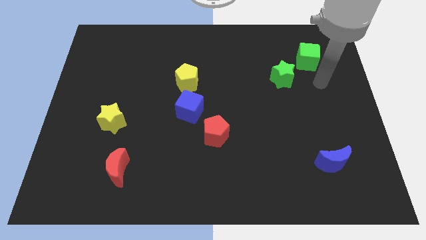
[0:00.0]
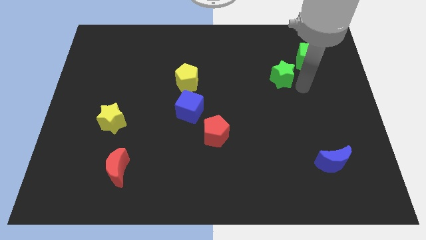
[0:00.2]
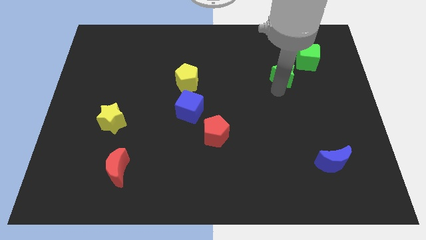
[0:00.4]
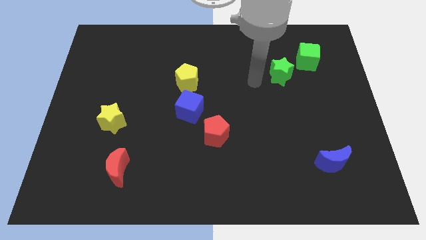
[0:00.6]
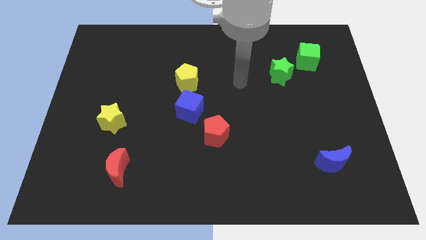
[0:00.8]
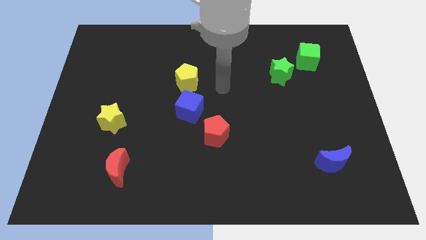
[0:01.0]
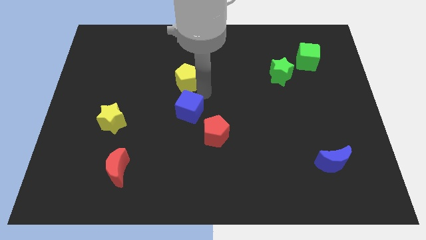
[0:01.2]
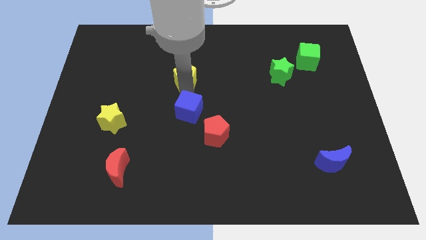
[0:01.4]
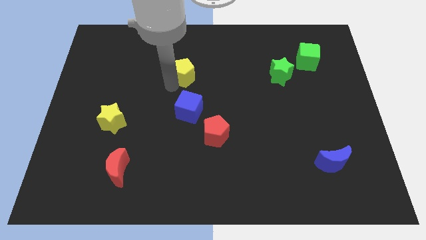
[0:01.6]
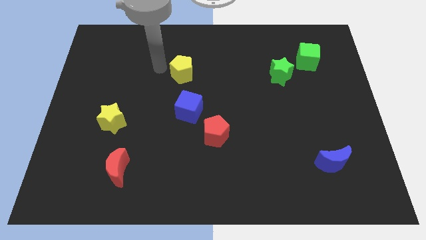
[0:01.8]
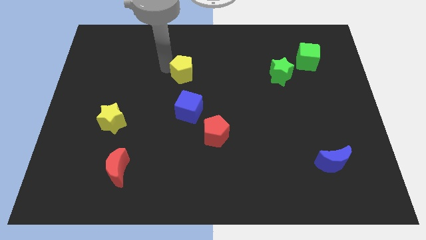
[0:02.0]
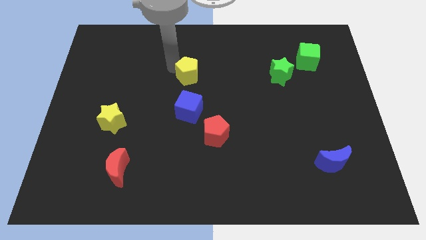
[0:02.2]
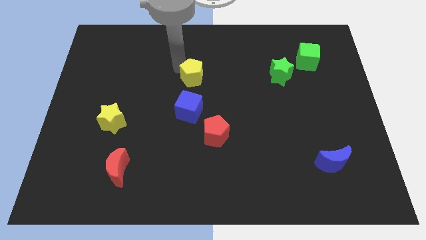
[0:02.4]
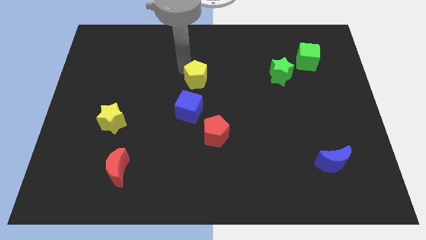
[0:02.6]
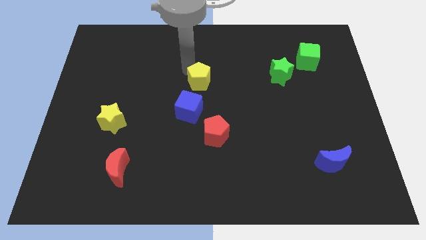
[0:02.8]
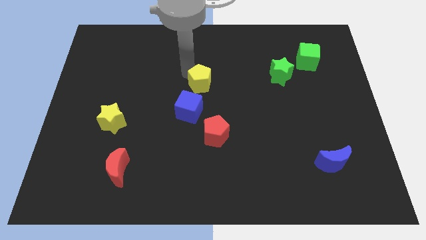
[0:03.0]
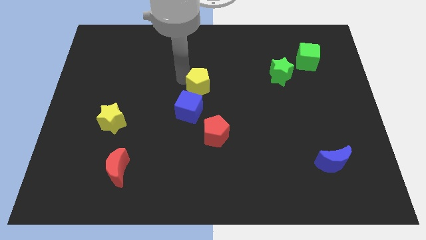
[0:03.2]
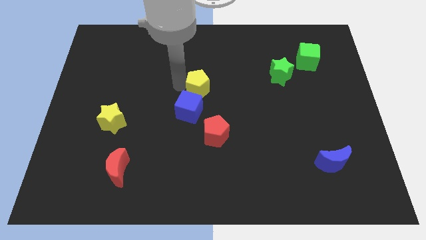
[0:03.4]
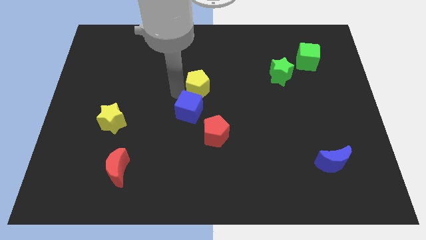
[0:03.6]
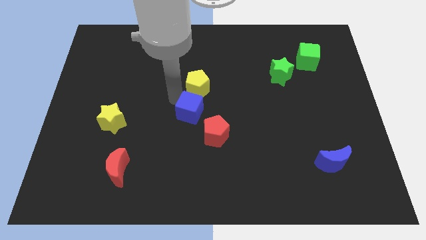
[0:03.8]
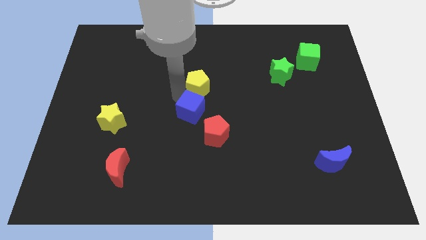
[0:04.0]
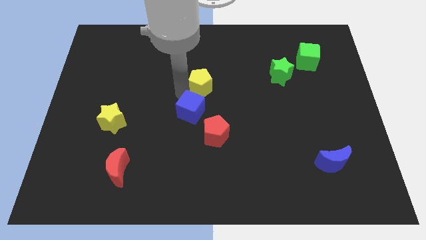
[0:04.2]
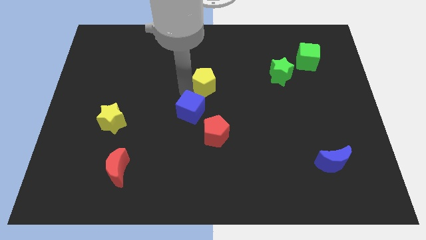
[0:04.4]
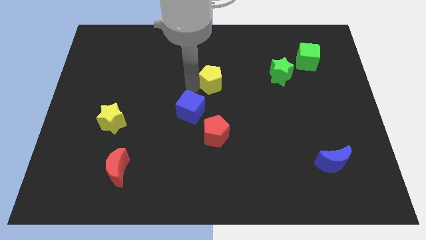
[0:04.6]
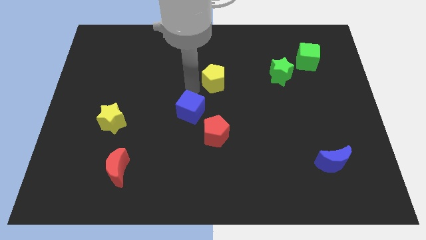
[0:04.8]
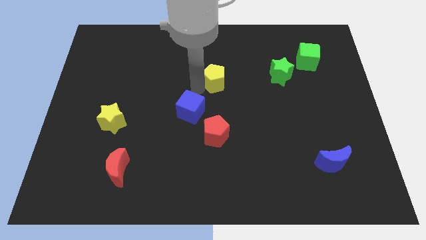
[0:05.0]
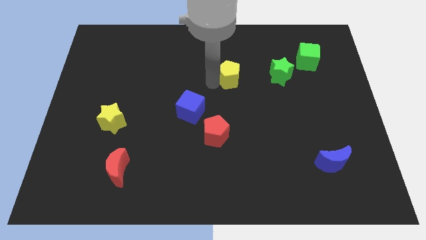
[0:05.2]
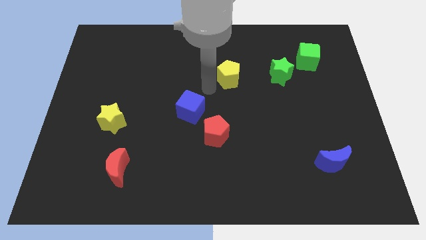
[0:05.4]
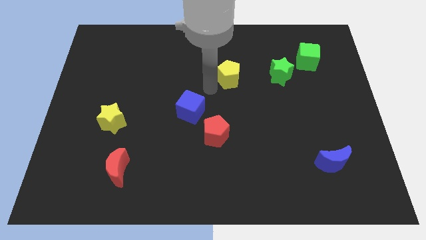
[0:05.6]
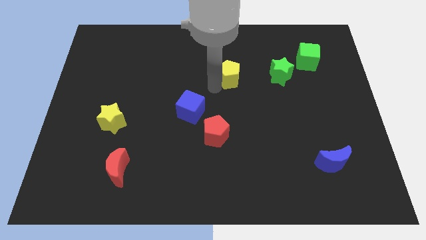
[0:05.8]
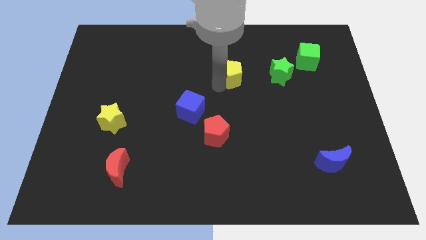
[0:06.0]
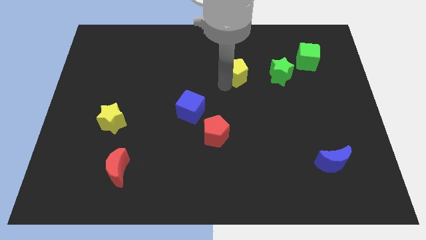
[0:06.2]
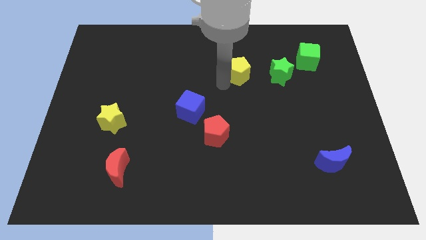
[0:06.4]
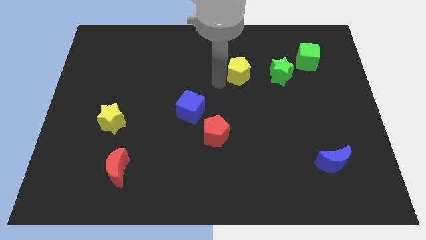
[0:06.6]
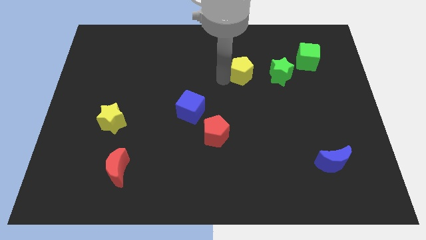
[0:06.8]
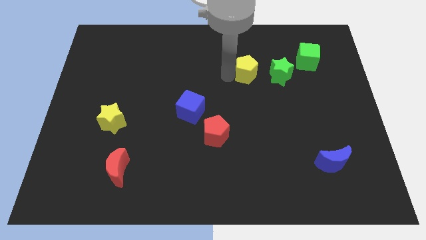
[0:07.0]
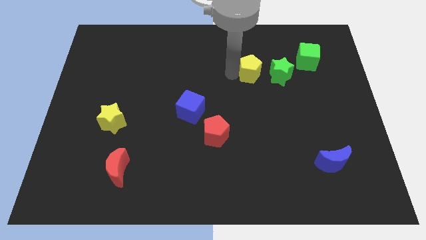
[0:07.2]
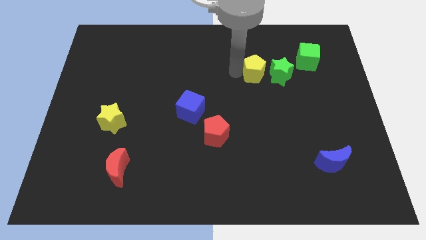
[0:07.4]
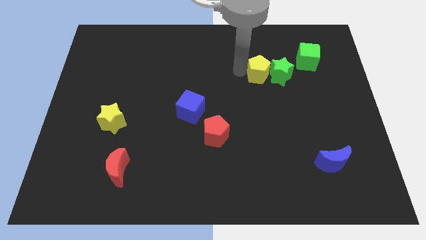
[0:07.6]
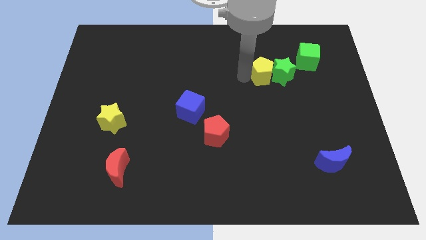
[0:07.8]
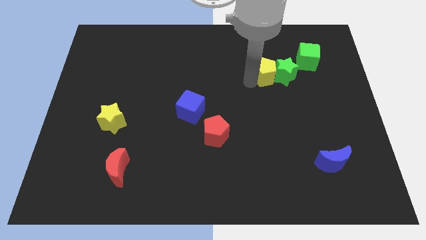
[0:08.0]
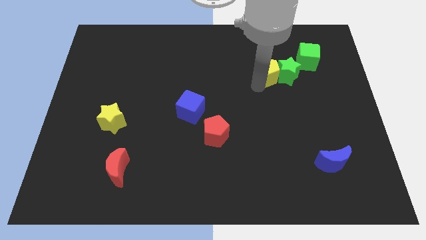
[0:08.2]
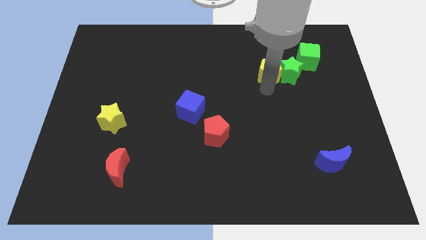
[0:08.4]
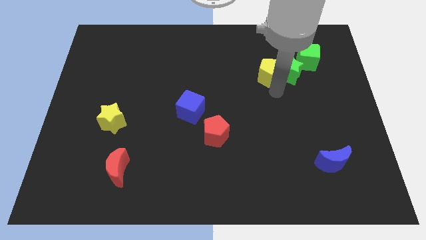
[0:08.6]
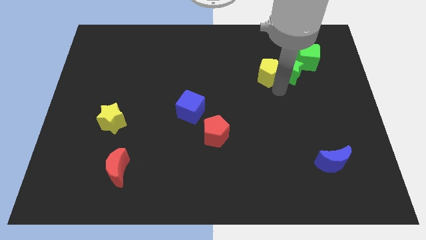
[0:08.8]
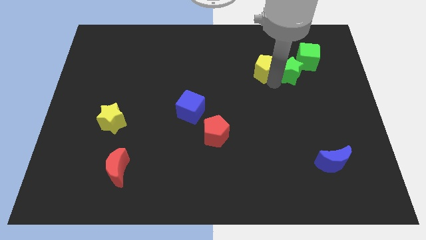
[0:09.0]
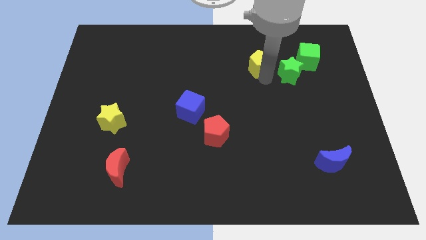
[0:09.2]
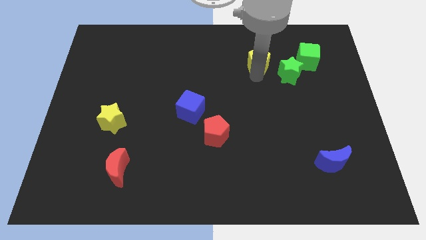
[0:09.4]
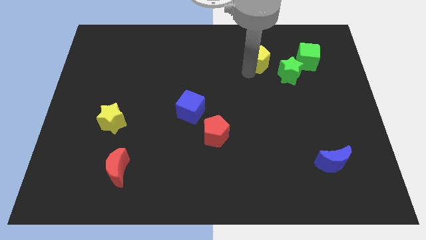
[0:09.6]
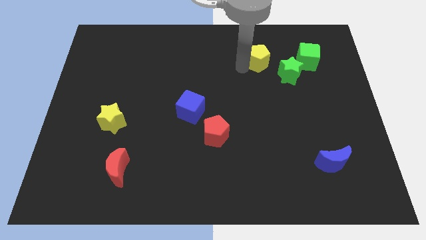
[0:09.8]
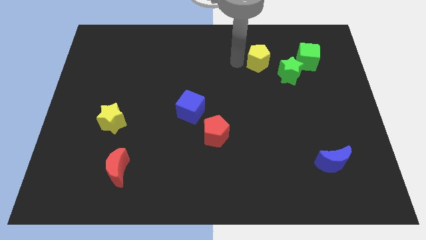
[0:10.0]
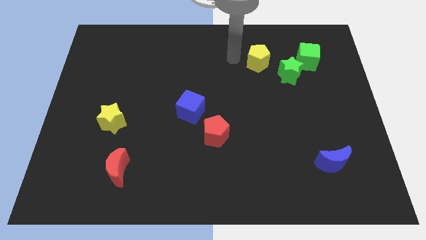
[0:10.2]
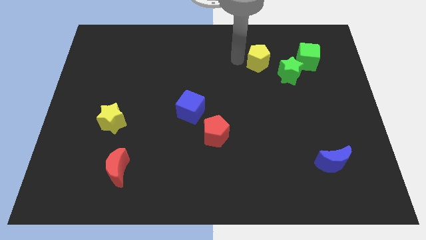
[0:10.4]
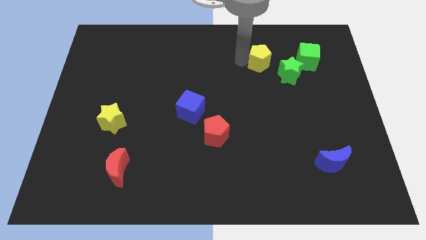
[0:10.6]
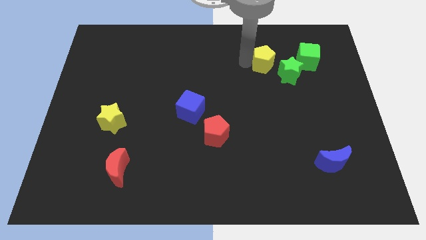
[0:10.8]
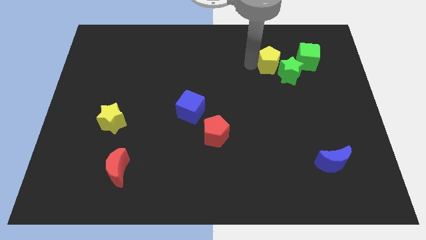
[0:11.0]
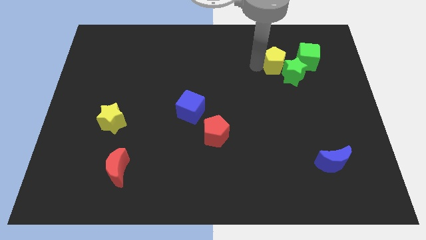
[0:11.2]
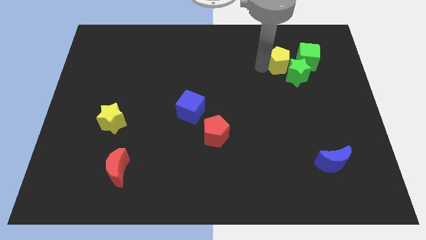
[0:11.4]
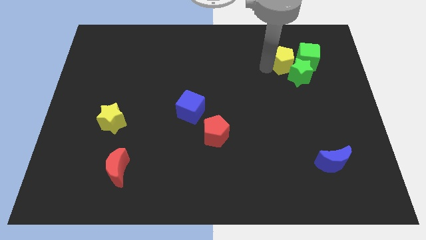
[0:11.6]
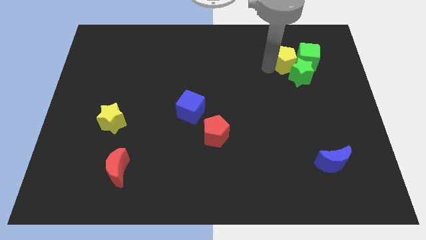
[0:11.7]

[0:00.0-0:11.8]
slide the yellow pentagon towards the green cube

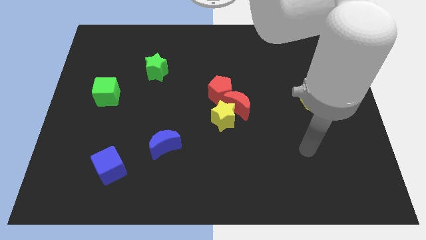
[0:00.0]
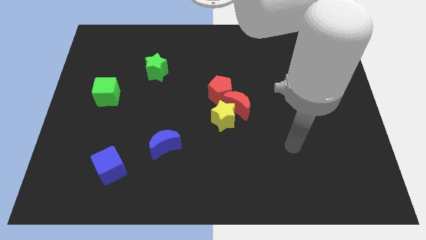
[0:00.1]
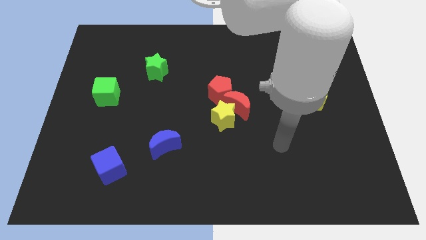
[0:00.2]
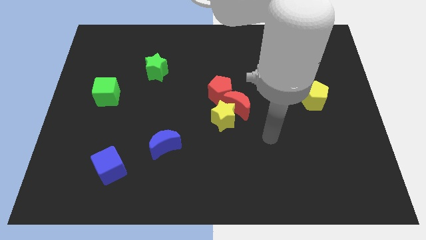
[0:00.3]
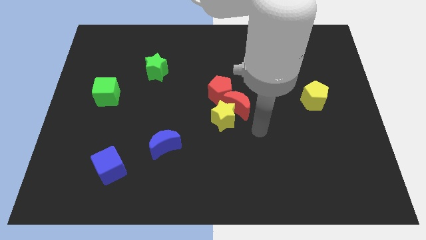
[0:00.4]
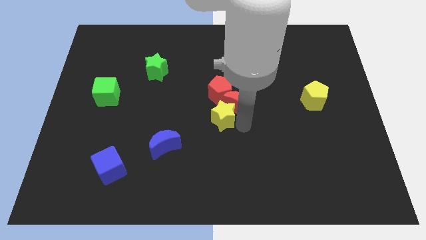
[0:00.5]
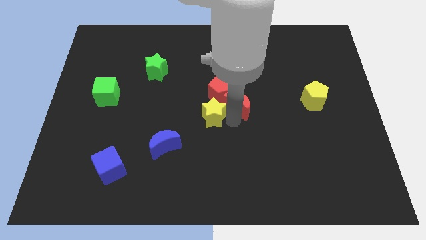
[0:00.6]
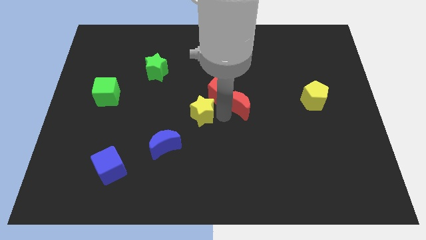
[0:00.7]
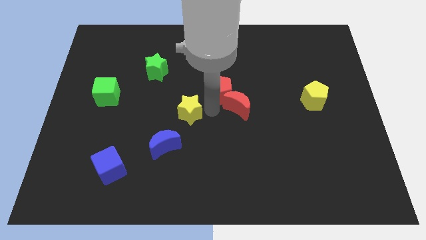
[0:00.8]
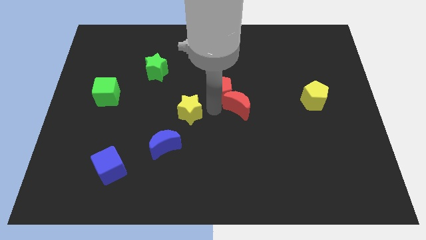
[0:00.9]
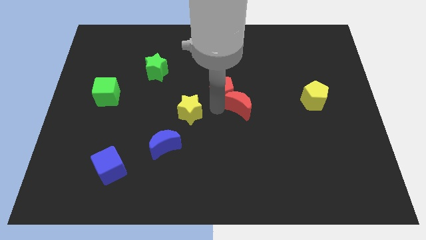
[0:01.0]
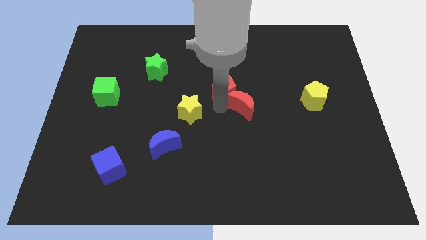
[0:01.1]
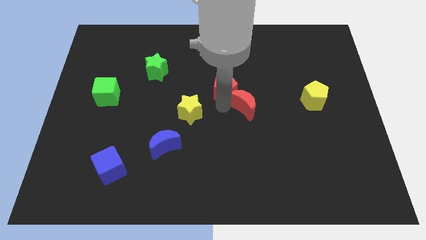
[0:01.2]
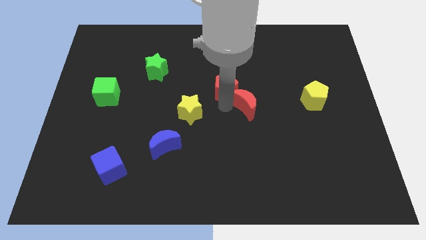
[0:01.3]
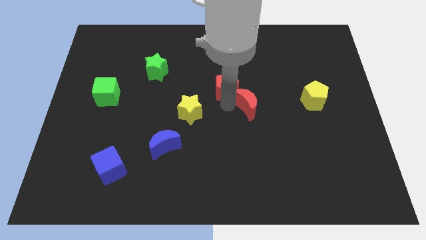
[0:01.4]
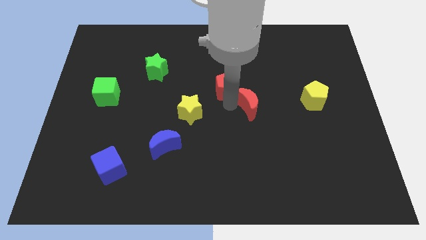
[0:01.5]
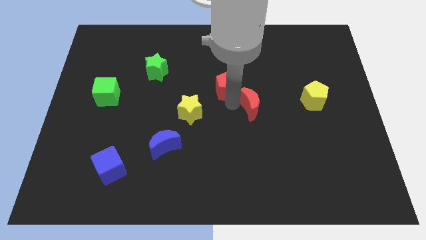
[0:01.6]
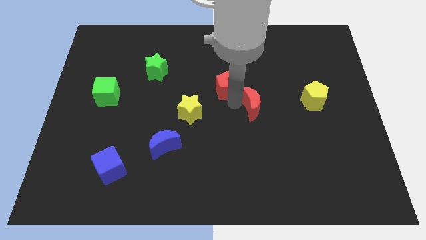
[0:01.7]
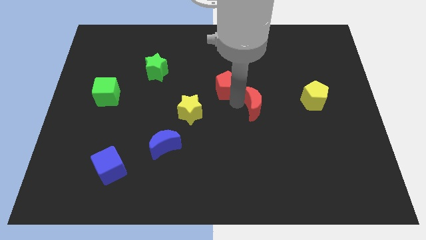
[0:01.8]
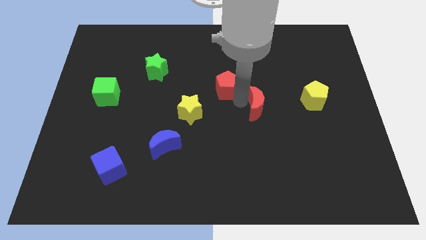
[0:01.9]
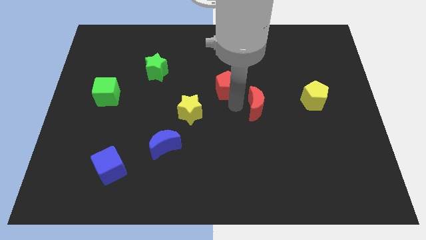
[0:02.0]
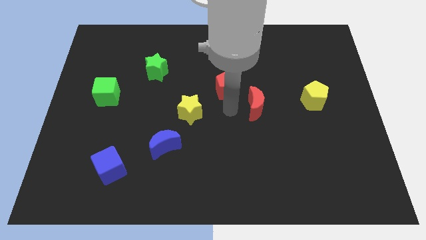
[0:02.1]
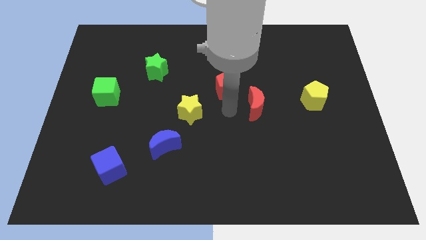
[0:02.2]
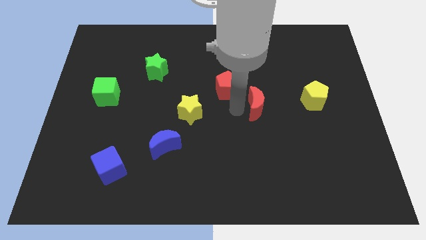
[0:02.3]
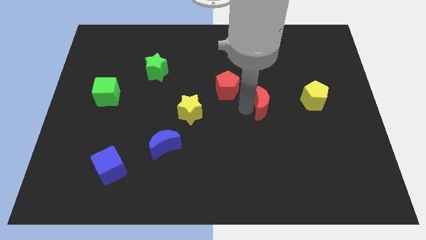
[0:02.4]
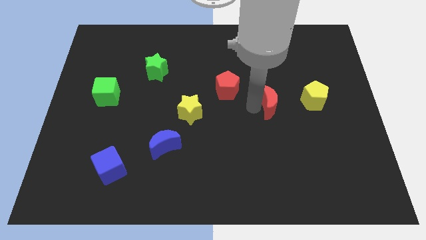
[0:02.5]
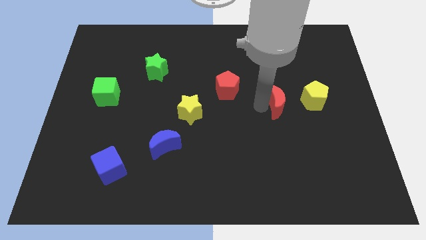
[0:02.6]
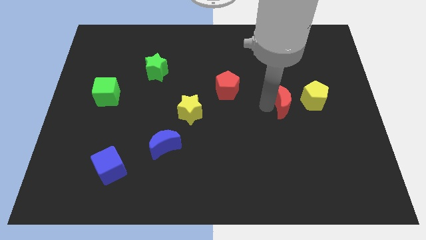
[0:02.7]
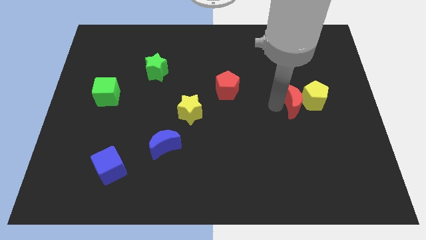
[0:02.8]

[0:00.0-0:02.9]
move the red moon to the yellow pentagon
